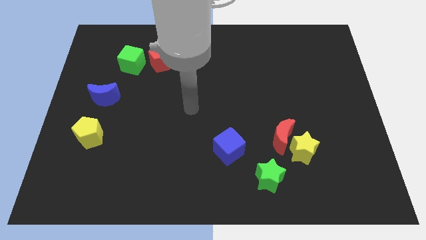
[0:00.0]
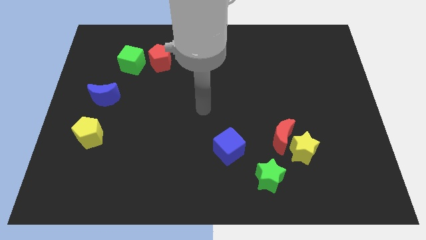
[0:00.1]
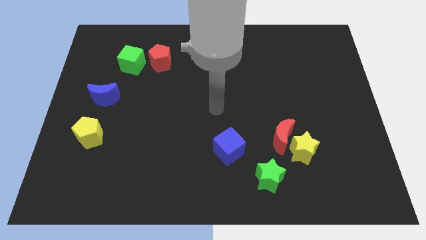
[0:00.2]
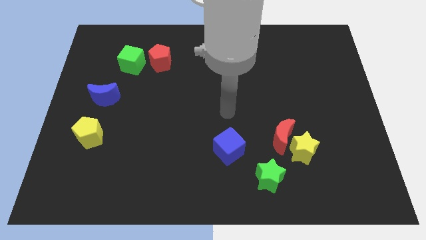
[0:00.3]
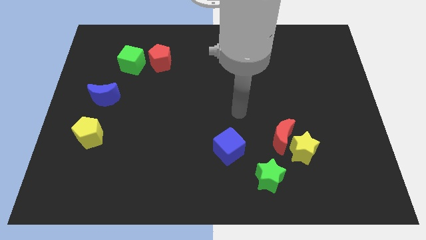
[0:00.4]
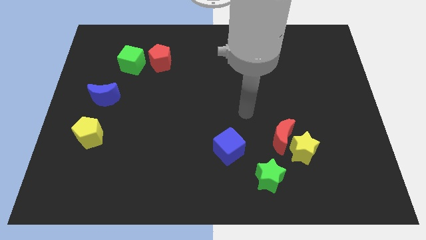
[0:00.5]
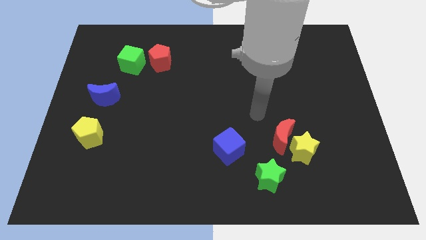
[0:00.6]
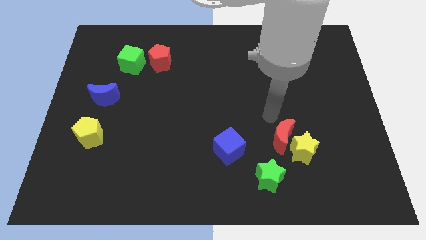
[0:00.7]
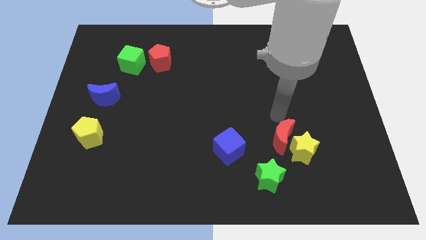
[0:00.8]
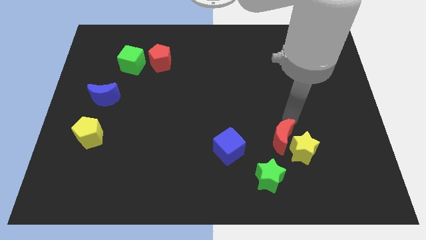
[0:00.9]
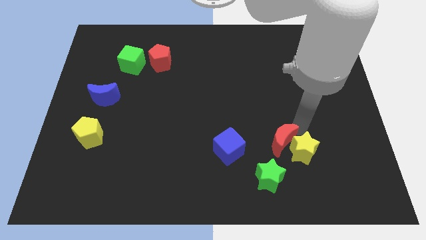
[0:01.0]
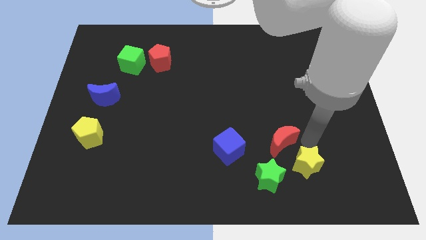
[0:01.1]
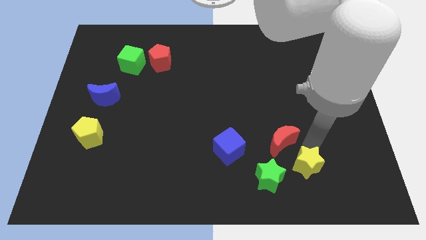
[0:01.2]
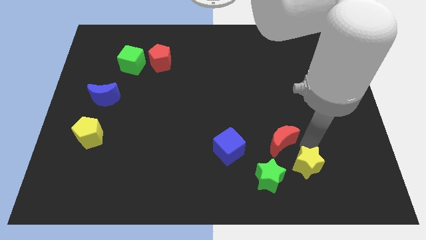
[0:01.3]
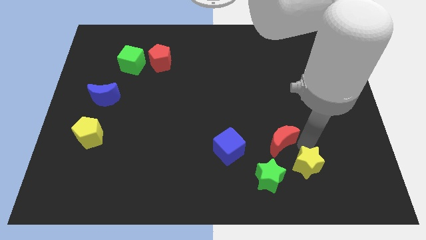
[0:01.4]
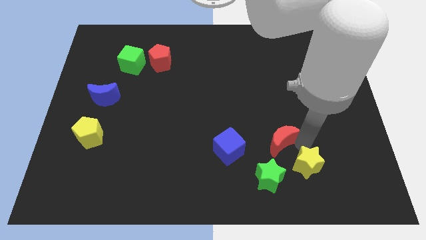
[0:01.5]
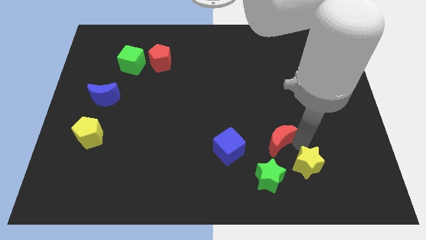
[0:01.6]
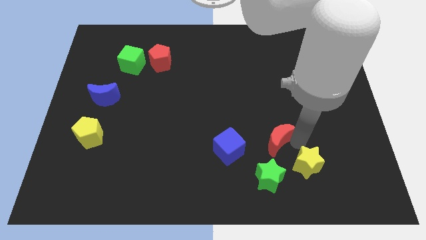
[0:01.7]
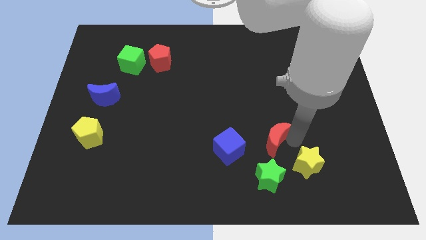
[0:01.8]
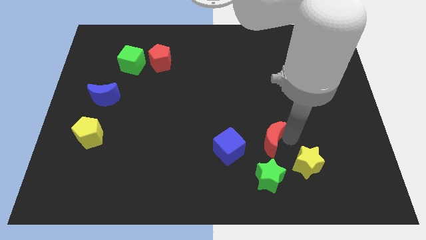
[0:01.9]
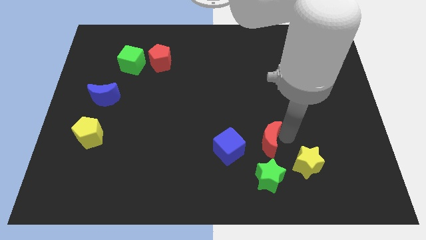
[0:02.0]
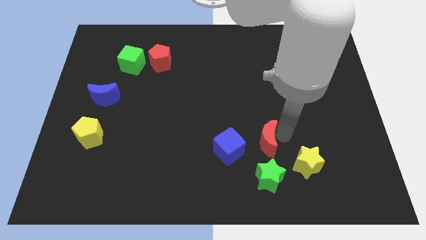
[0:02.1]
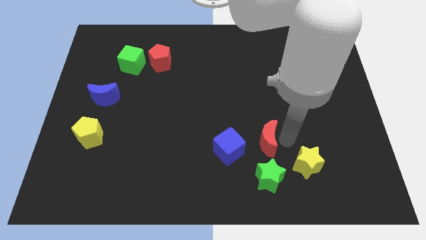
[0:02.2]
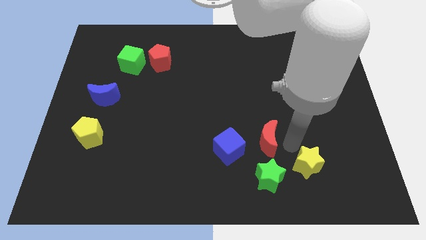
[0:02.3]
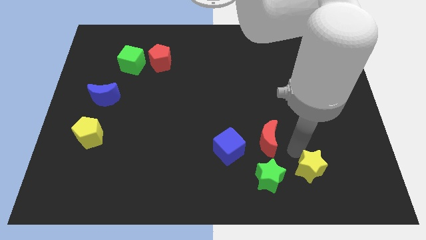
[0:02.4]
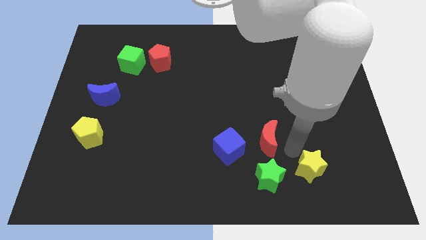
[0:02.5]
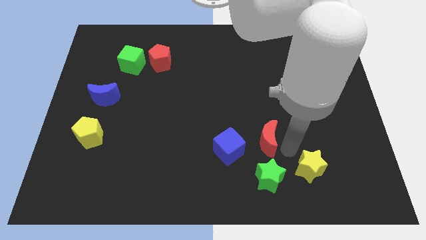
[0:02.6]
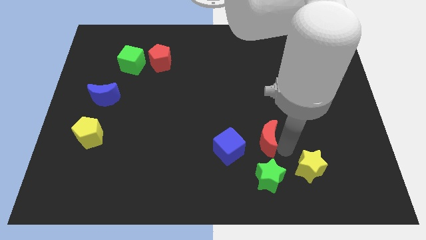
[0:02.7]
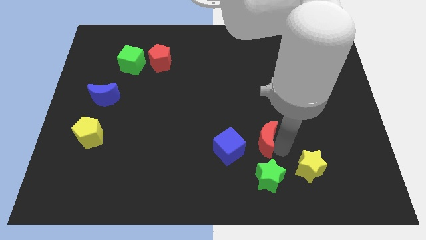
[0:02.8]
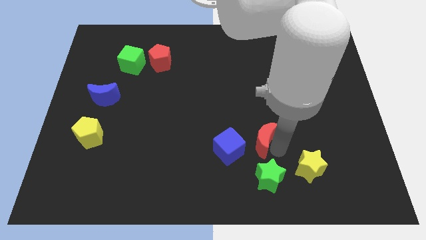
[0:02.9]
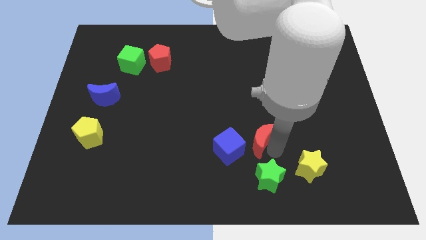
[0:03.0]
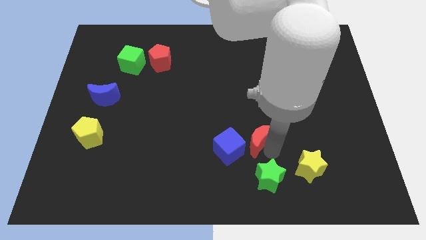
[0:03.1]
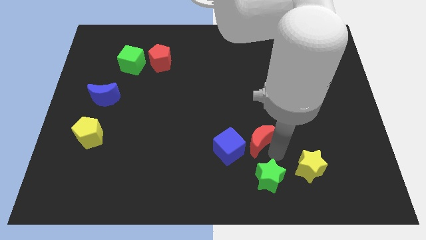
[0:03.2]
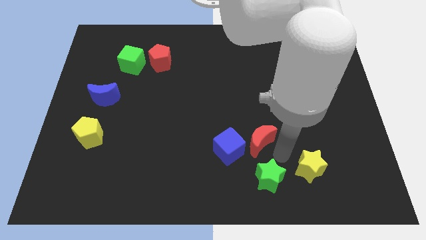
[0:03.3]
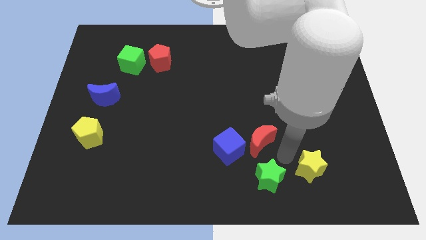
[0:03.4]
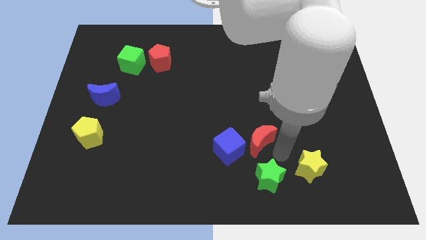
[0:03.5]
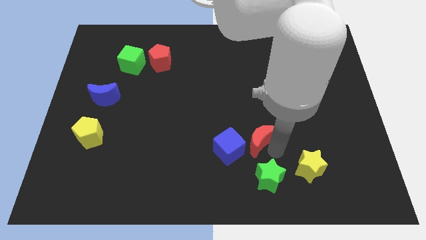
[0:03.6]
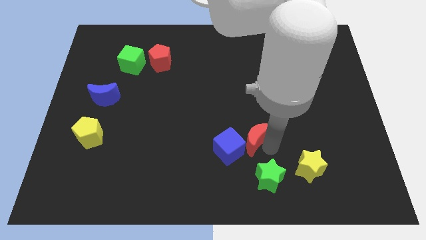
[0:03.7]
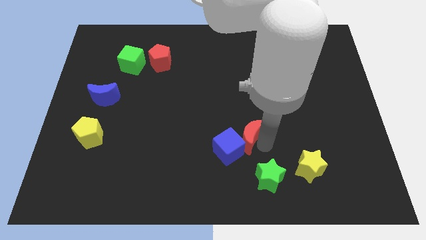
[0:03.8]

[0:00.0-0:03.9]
move the red moon a bit to the left

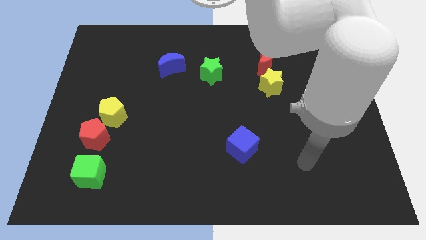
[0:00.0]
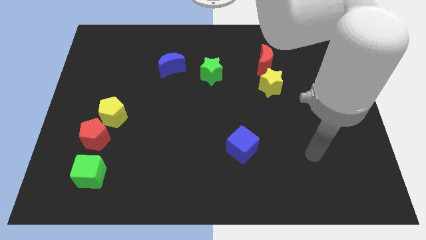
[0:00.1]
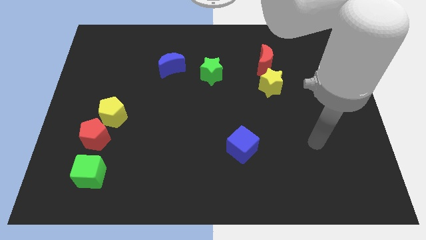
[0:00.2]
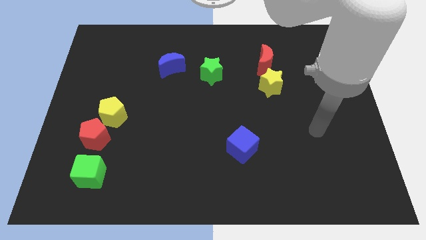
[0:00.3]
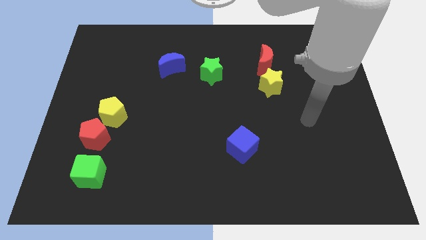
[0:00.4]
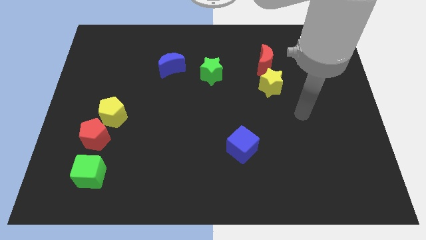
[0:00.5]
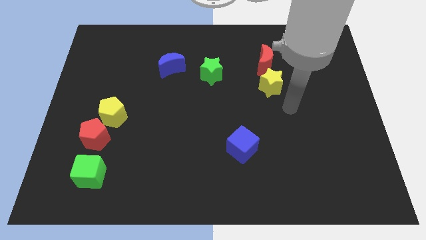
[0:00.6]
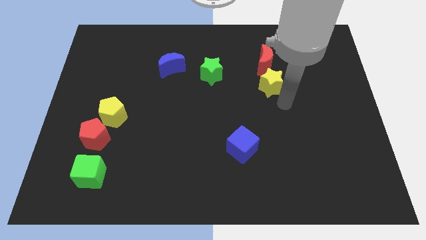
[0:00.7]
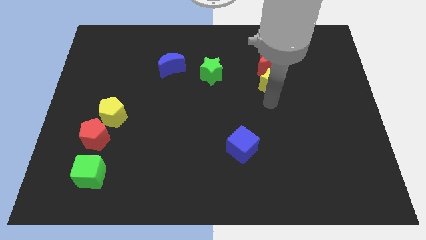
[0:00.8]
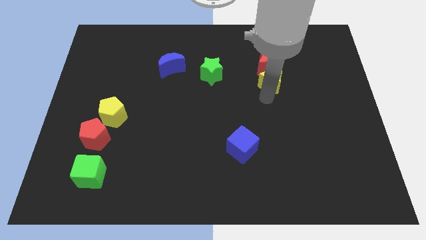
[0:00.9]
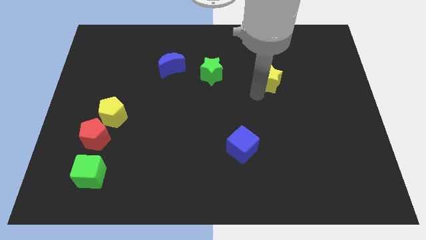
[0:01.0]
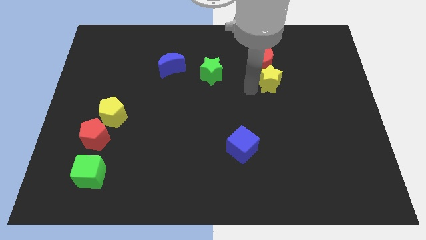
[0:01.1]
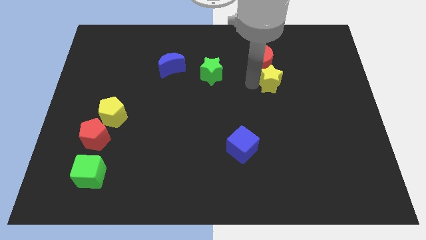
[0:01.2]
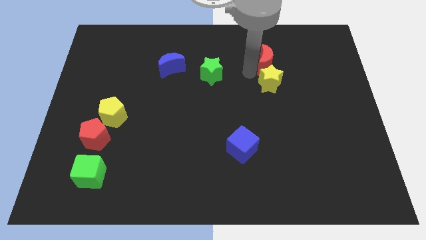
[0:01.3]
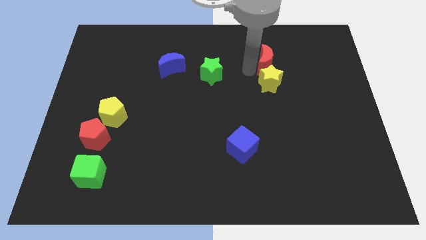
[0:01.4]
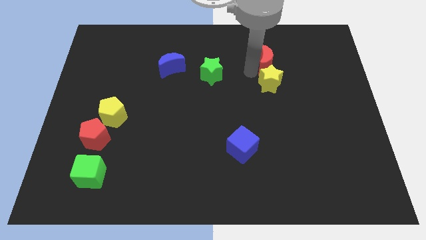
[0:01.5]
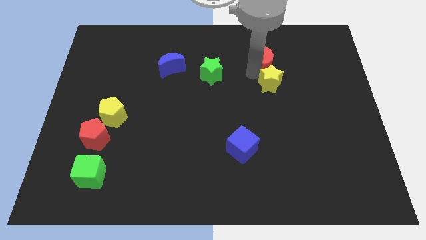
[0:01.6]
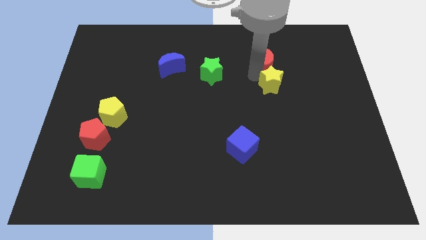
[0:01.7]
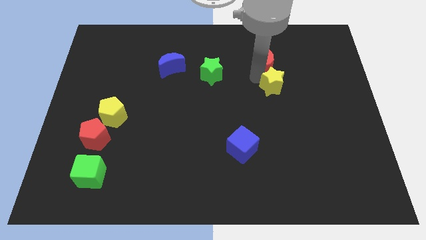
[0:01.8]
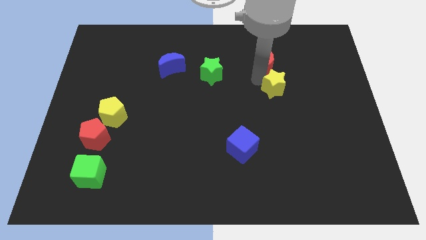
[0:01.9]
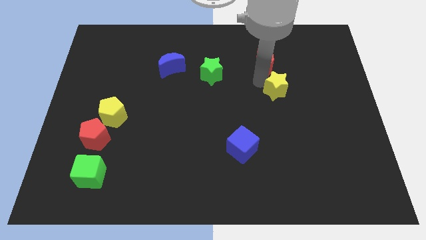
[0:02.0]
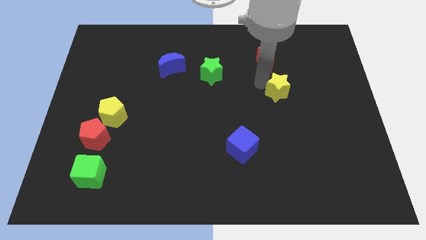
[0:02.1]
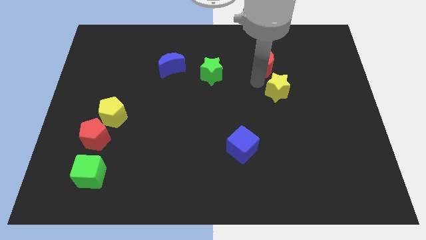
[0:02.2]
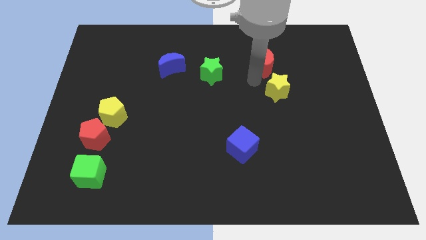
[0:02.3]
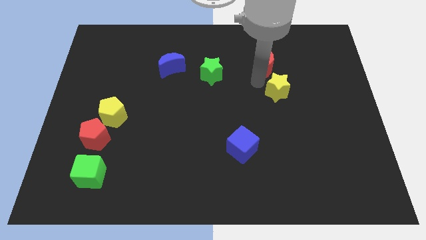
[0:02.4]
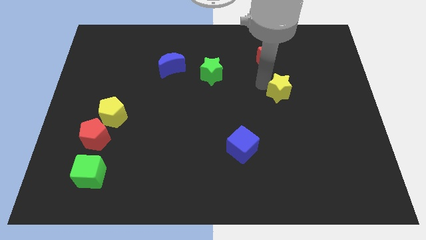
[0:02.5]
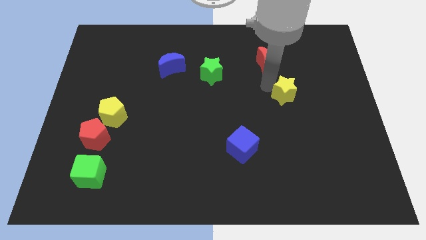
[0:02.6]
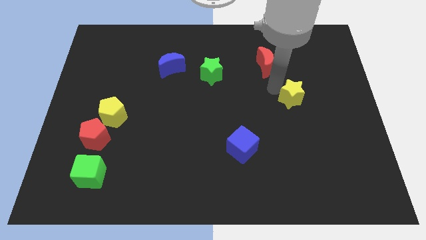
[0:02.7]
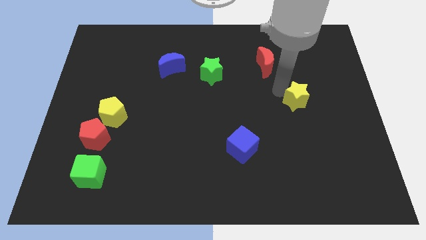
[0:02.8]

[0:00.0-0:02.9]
move the yellow star a little bit downwards and right

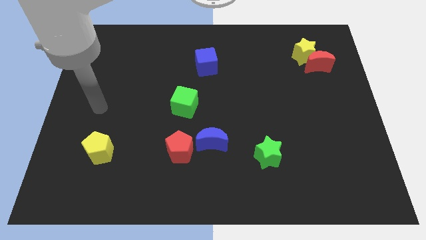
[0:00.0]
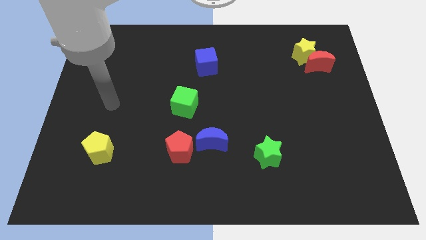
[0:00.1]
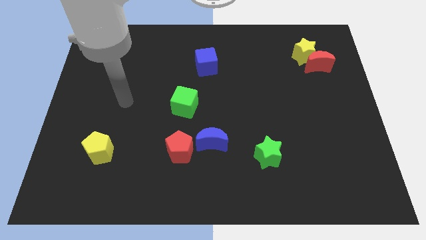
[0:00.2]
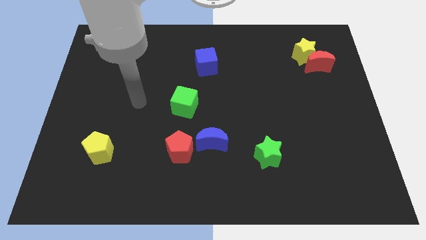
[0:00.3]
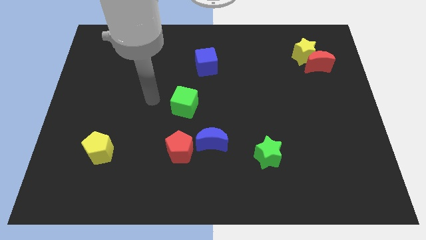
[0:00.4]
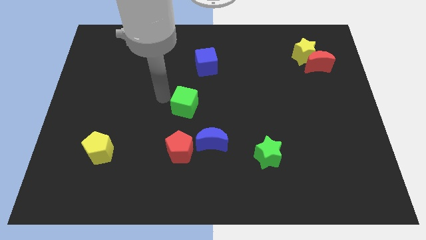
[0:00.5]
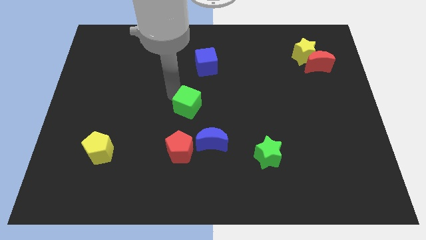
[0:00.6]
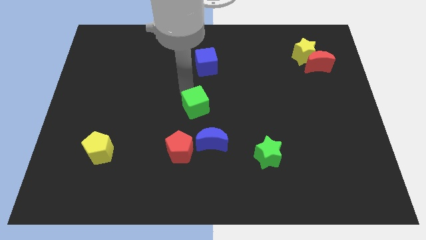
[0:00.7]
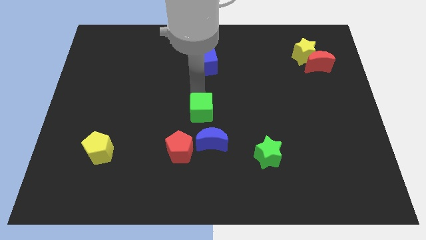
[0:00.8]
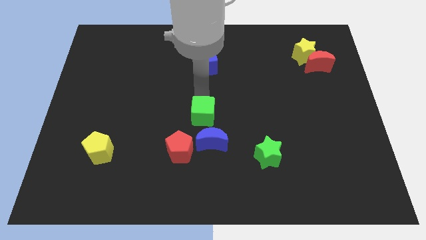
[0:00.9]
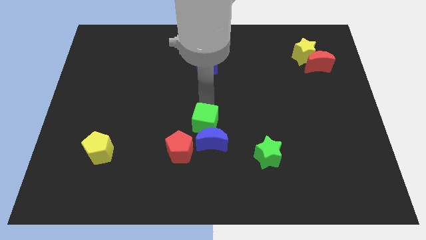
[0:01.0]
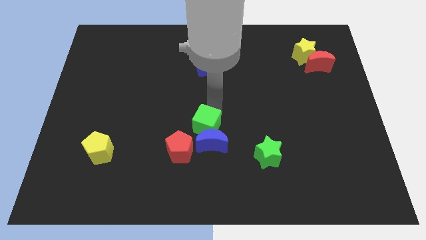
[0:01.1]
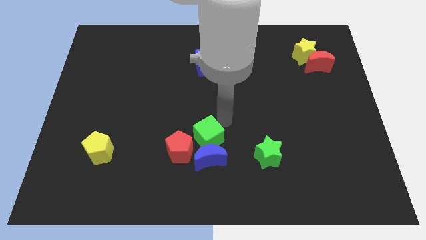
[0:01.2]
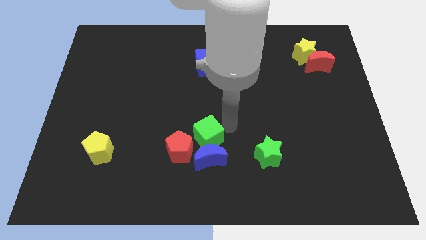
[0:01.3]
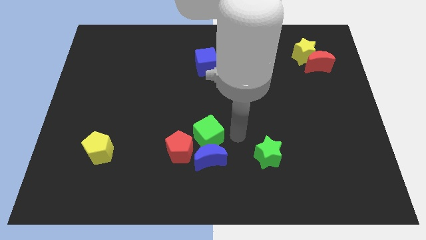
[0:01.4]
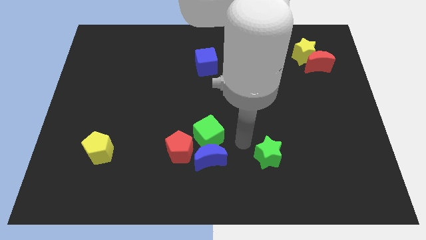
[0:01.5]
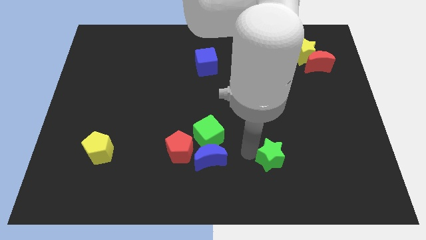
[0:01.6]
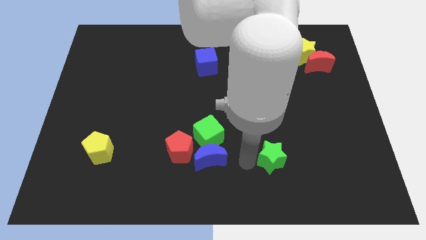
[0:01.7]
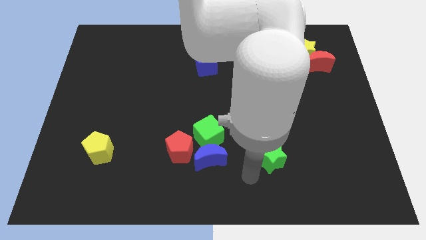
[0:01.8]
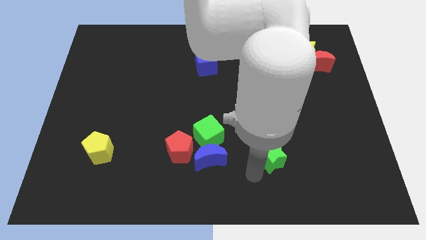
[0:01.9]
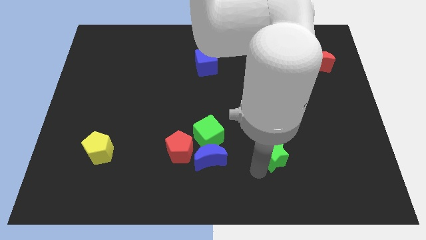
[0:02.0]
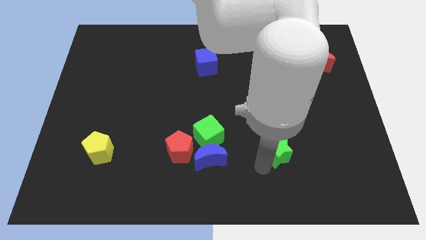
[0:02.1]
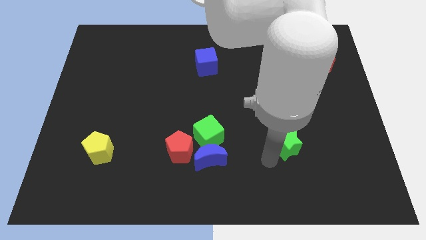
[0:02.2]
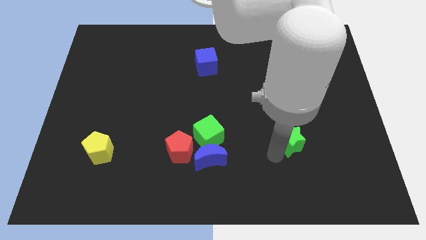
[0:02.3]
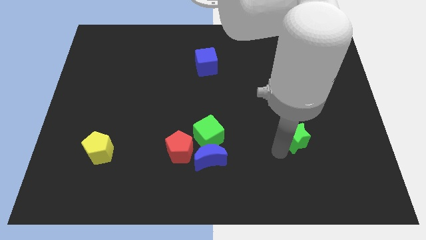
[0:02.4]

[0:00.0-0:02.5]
slightly push the green star upwards and right diagonally
